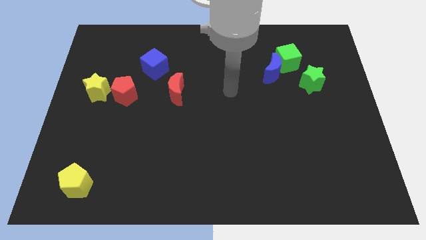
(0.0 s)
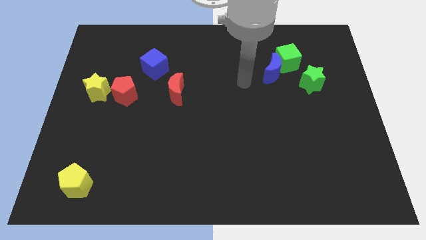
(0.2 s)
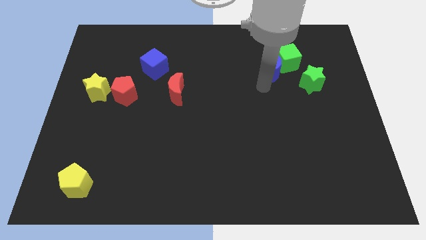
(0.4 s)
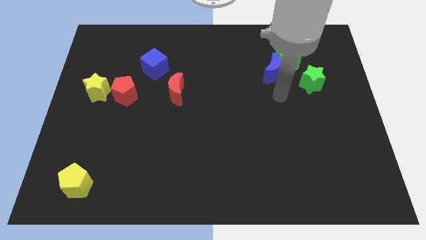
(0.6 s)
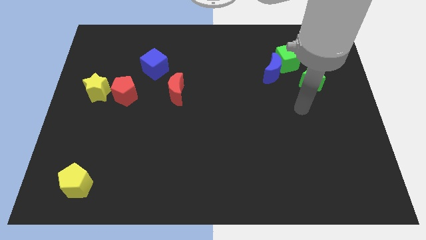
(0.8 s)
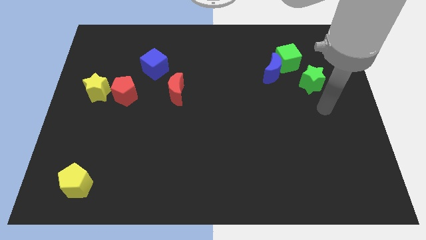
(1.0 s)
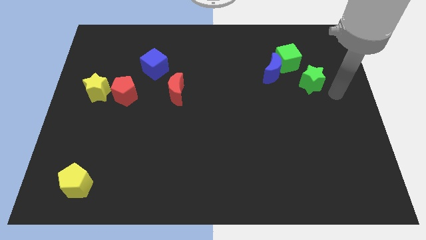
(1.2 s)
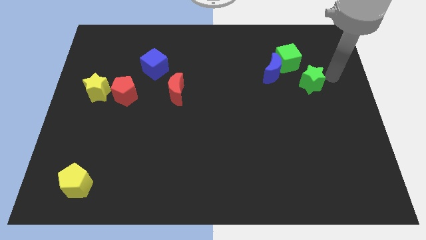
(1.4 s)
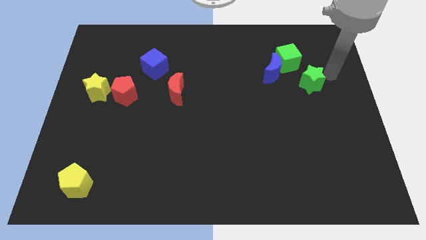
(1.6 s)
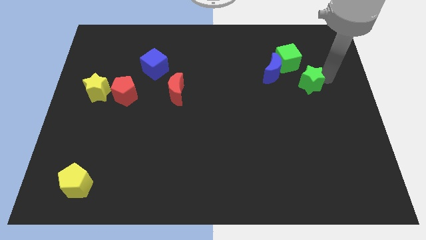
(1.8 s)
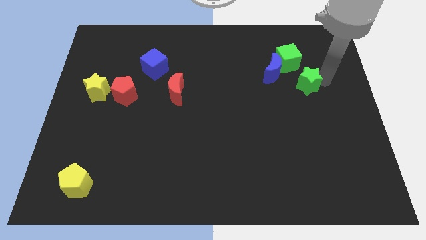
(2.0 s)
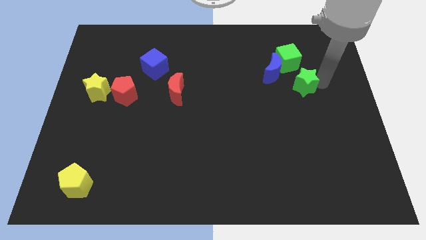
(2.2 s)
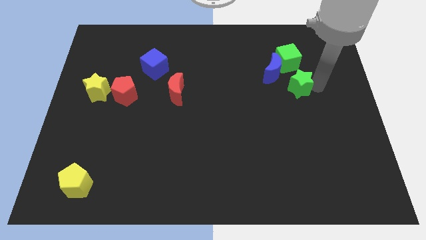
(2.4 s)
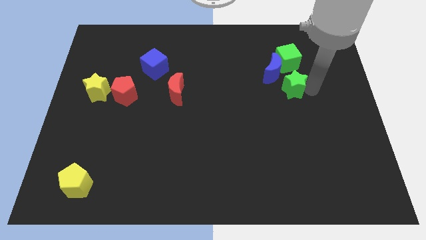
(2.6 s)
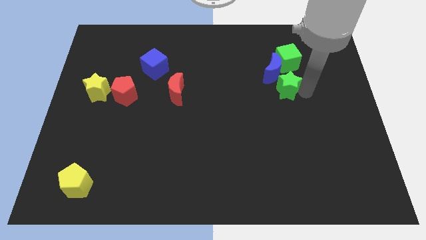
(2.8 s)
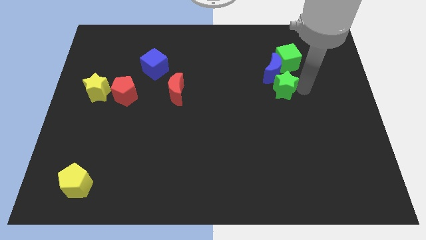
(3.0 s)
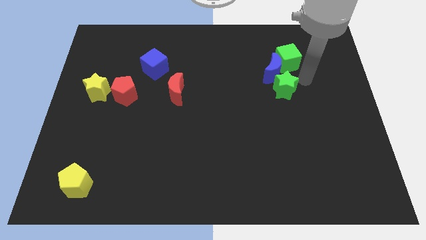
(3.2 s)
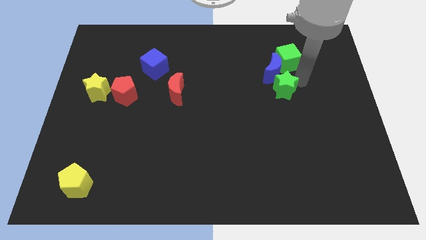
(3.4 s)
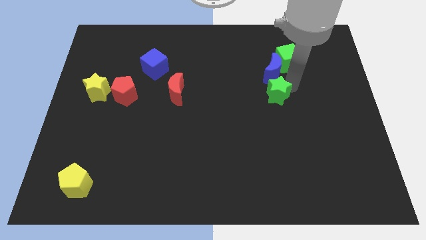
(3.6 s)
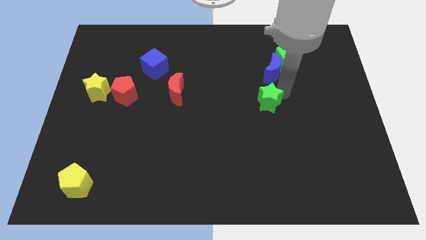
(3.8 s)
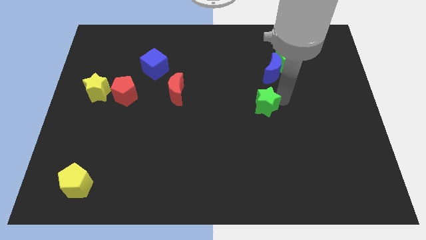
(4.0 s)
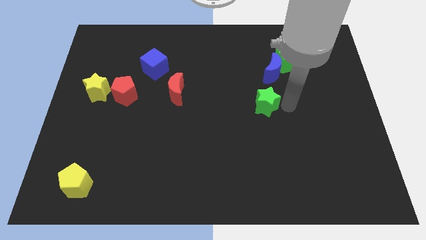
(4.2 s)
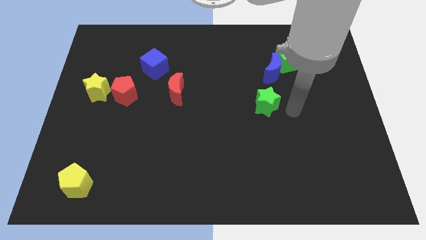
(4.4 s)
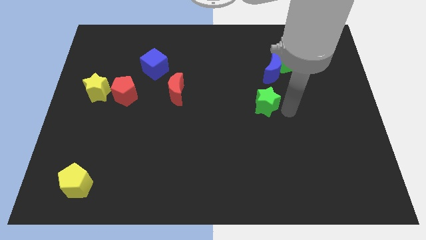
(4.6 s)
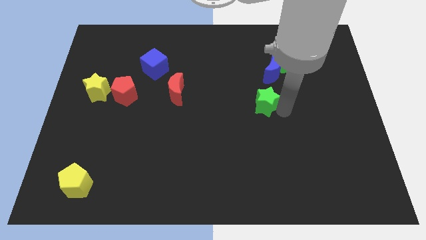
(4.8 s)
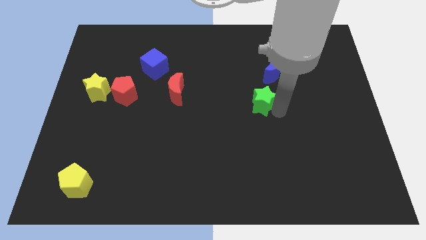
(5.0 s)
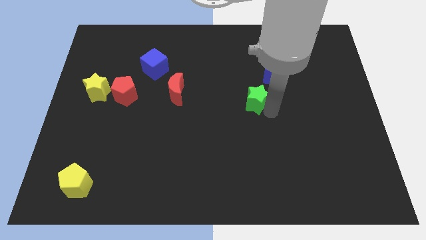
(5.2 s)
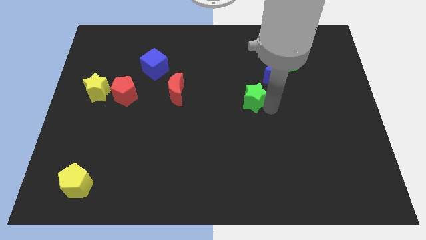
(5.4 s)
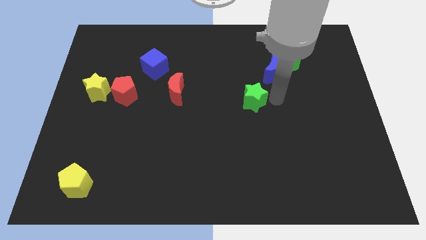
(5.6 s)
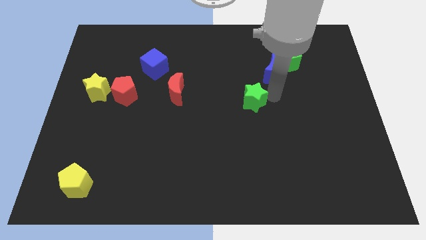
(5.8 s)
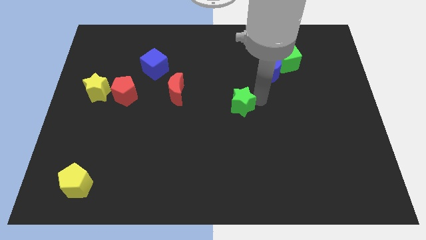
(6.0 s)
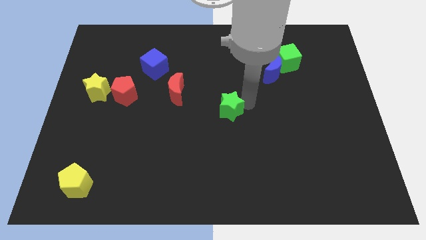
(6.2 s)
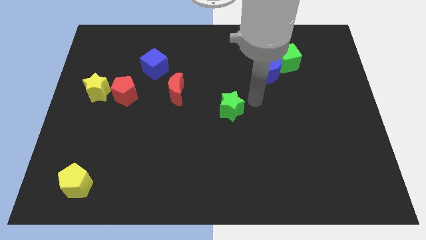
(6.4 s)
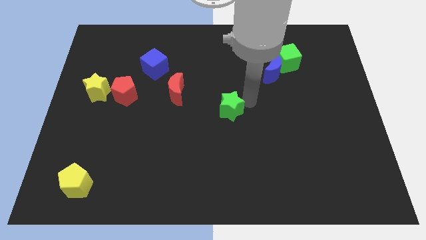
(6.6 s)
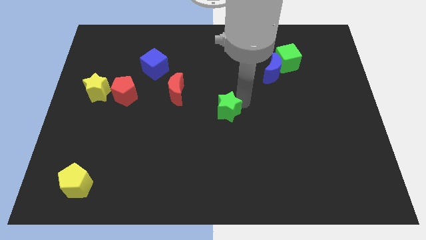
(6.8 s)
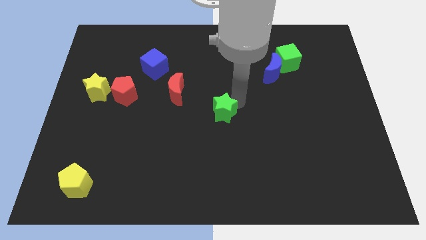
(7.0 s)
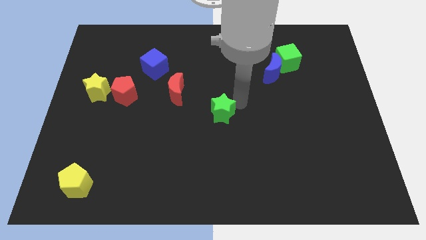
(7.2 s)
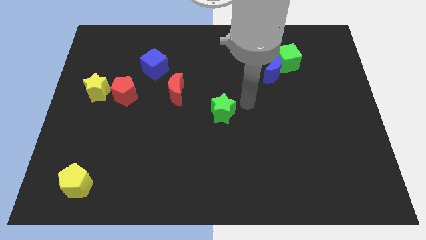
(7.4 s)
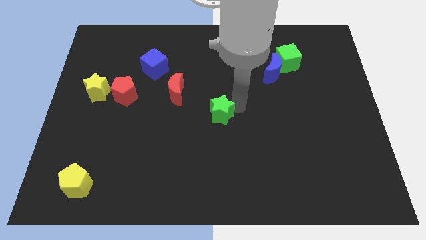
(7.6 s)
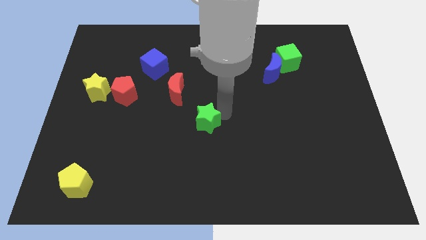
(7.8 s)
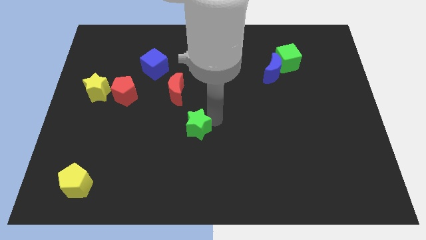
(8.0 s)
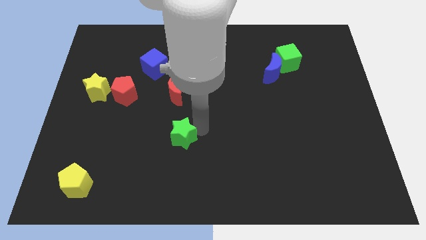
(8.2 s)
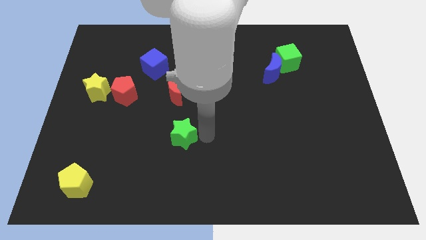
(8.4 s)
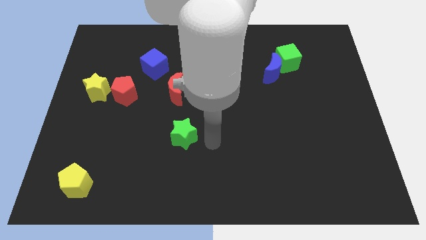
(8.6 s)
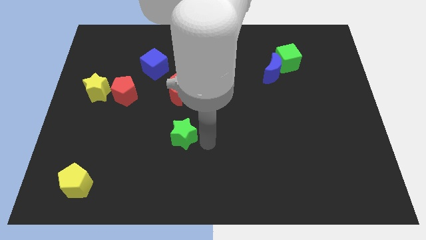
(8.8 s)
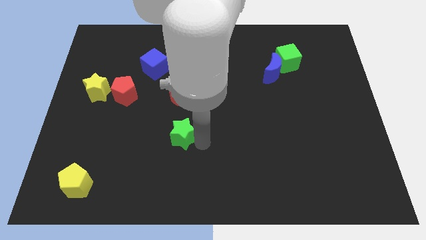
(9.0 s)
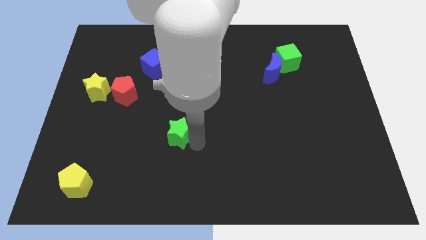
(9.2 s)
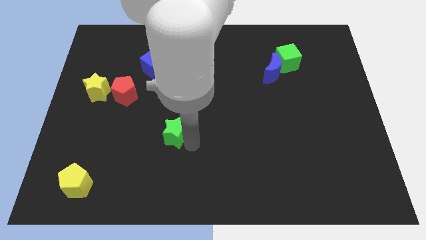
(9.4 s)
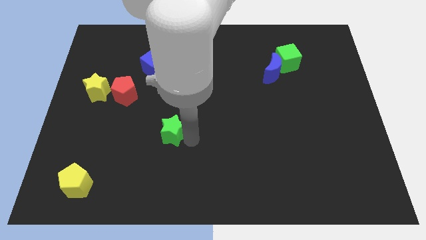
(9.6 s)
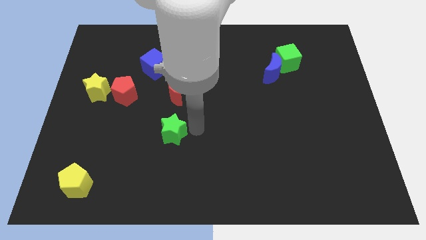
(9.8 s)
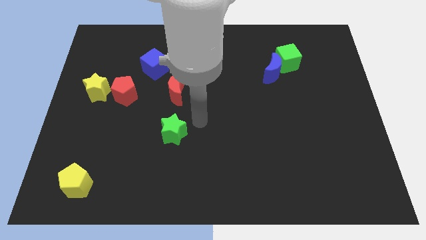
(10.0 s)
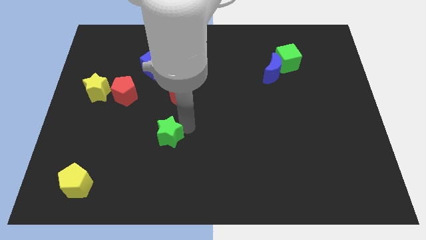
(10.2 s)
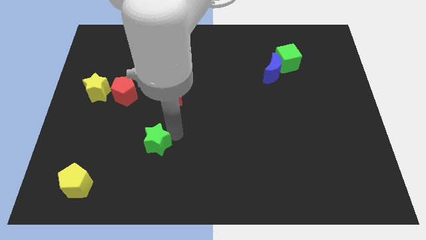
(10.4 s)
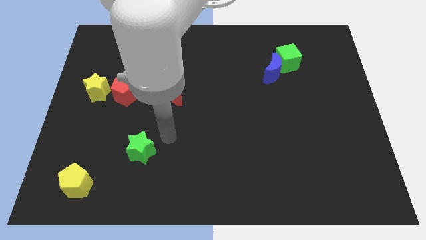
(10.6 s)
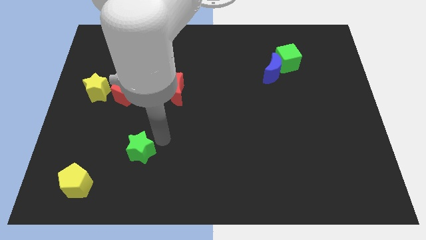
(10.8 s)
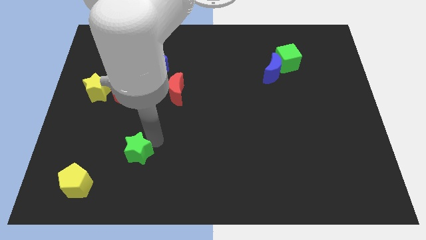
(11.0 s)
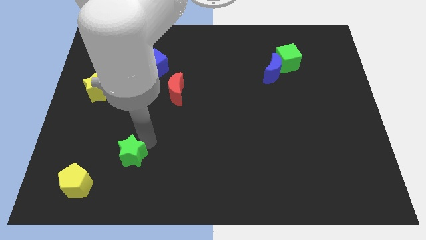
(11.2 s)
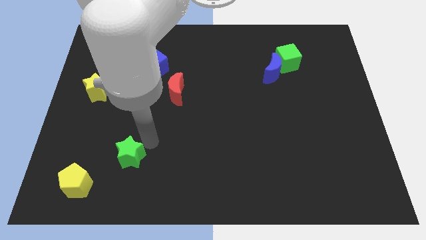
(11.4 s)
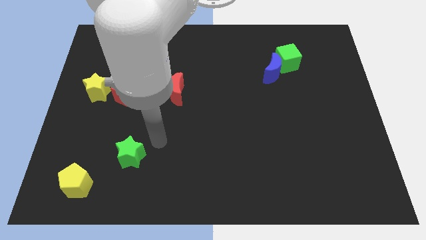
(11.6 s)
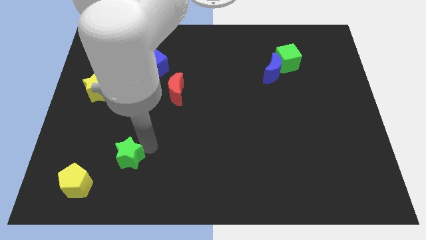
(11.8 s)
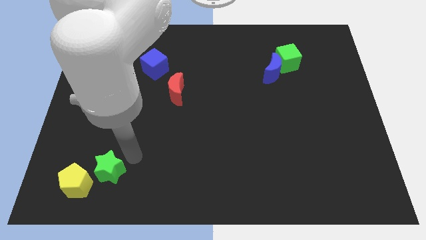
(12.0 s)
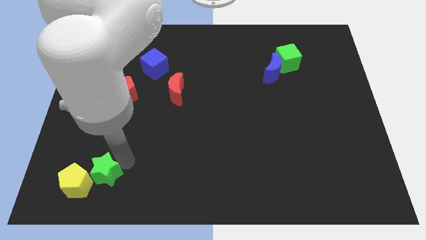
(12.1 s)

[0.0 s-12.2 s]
slide the green star next to the yellow pentagon
